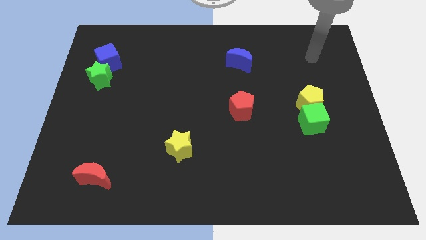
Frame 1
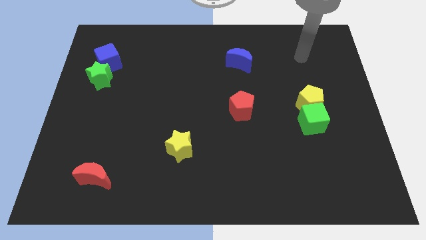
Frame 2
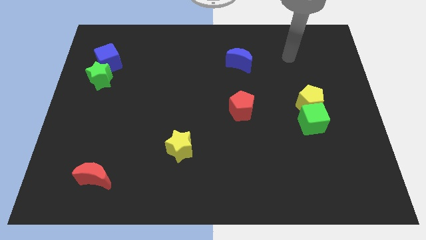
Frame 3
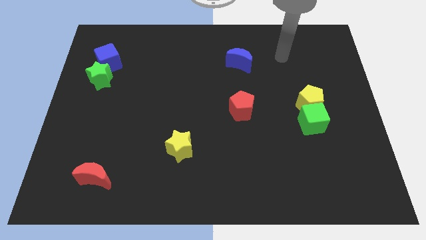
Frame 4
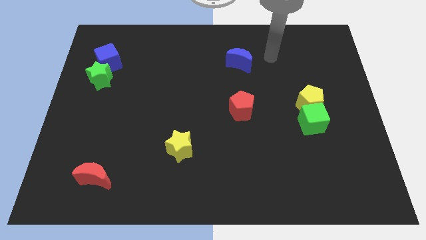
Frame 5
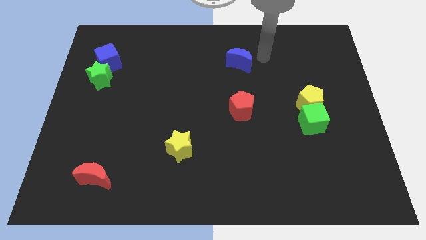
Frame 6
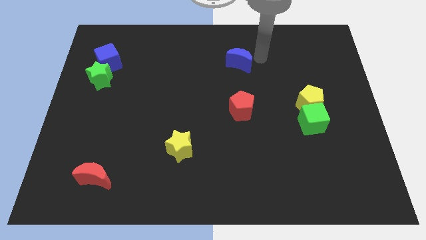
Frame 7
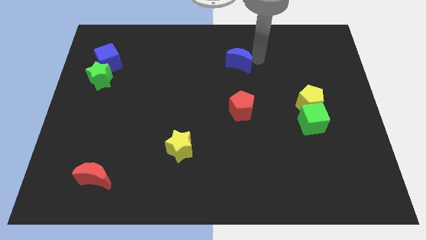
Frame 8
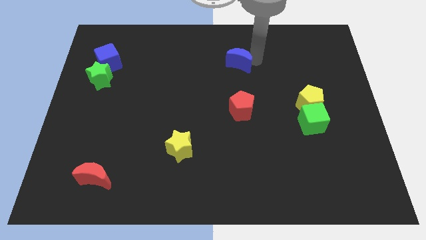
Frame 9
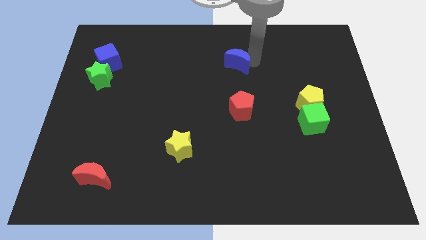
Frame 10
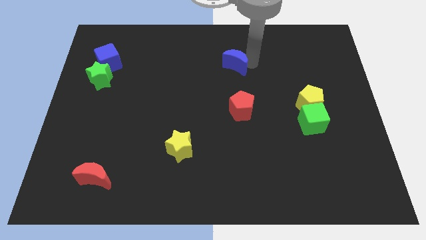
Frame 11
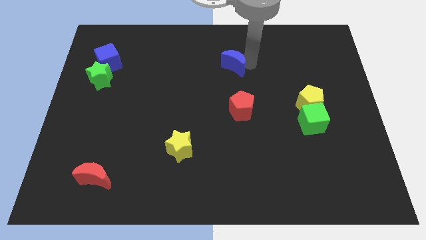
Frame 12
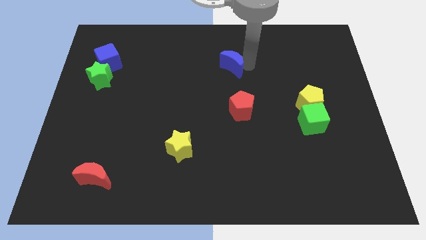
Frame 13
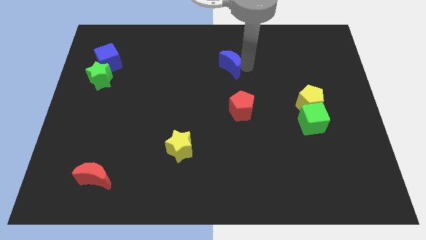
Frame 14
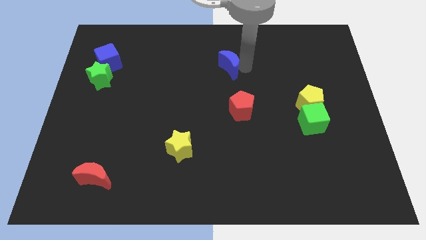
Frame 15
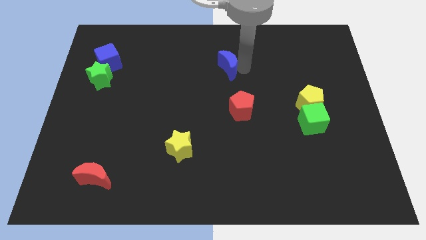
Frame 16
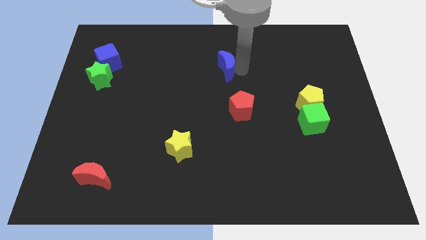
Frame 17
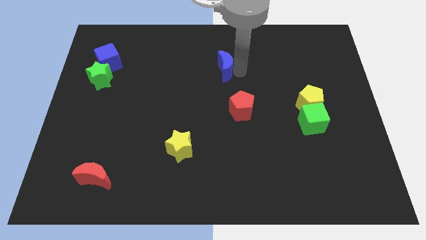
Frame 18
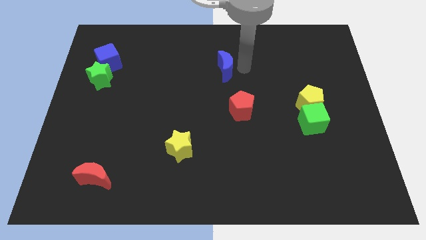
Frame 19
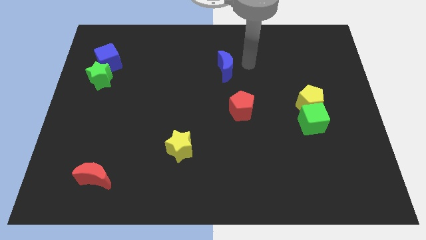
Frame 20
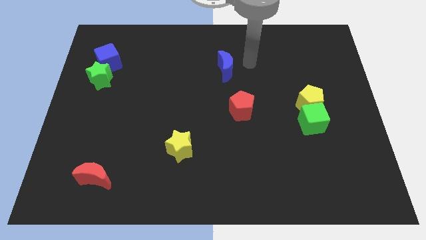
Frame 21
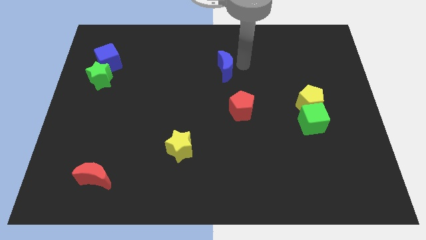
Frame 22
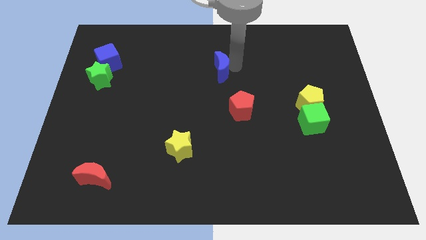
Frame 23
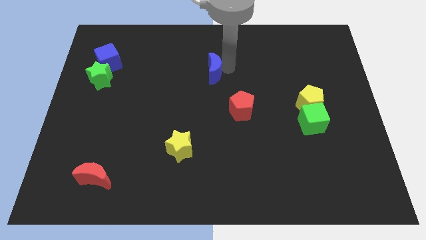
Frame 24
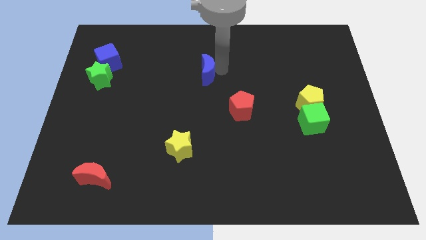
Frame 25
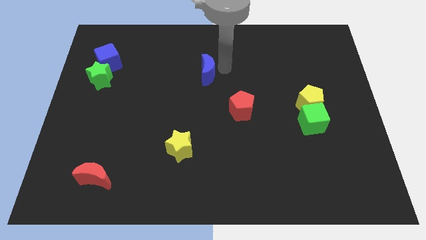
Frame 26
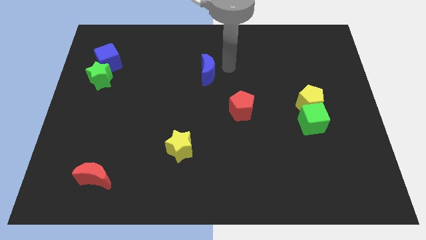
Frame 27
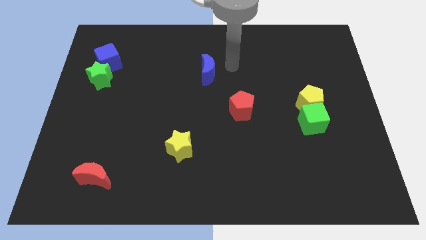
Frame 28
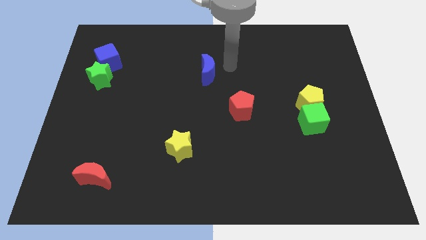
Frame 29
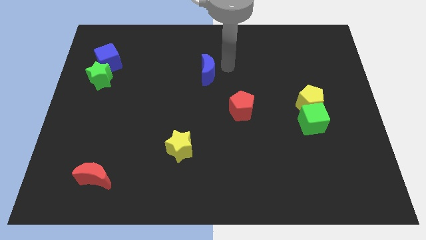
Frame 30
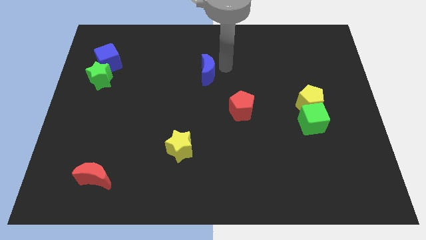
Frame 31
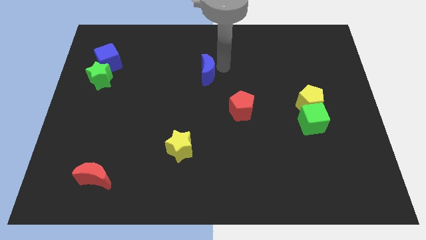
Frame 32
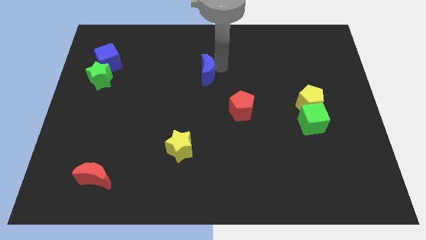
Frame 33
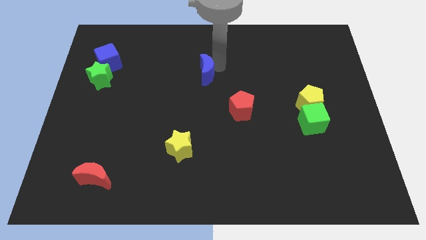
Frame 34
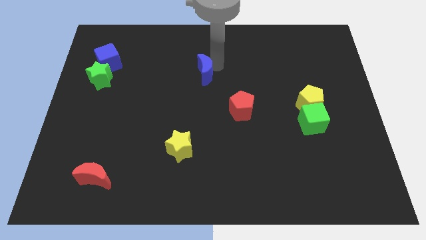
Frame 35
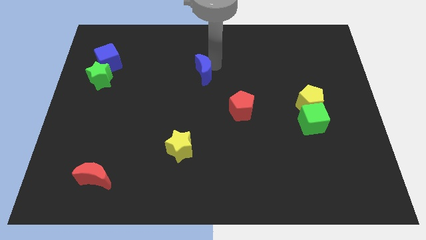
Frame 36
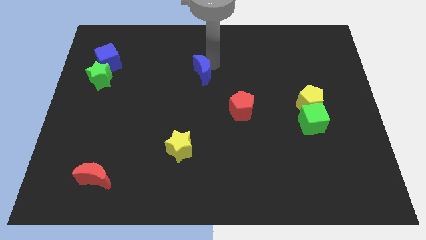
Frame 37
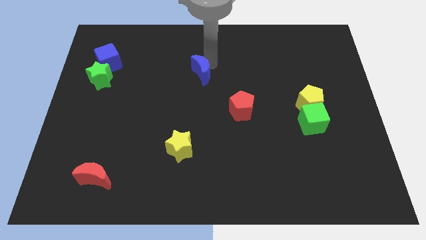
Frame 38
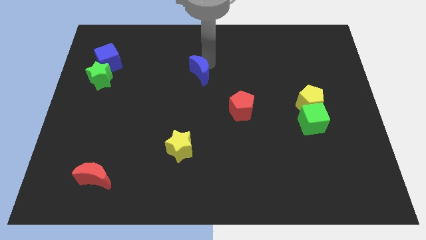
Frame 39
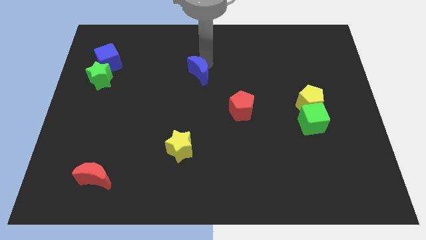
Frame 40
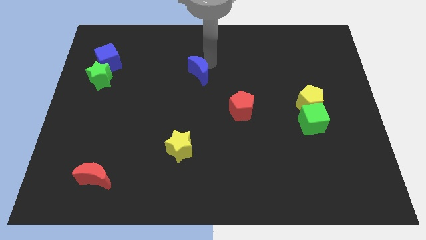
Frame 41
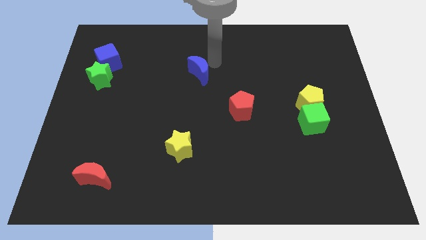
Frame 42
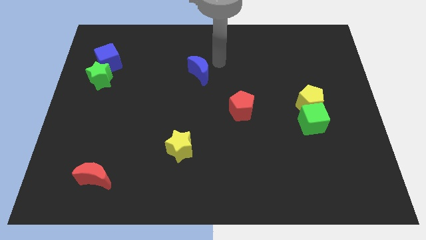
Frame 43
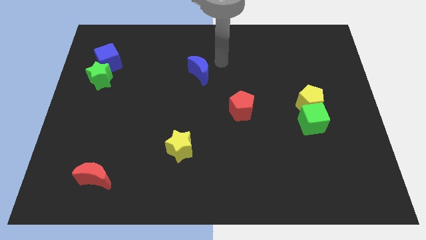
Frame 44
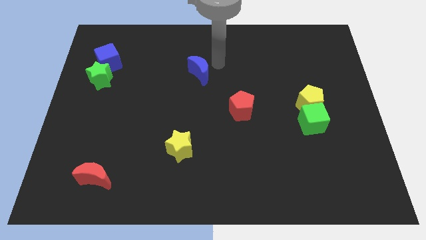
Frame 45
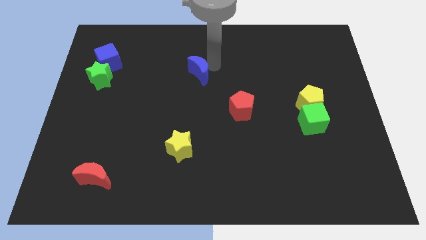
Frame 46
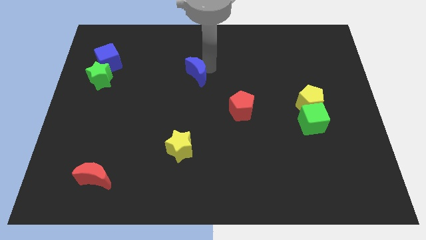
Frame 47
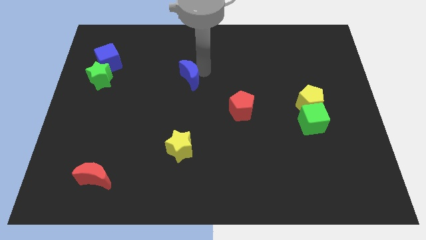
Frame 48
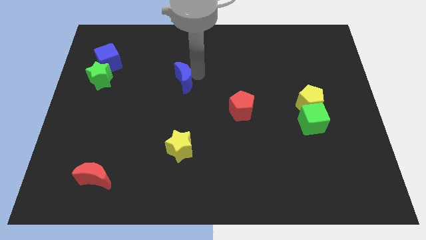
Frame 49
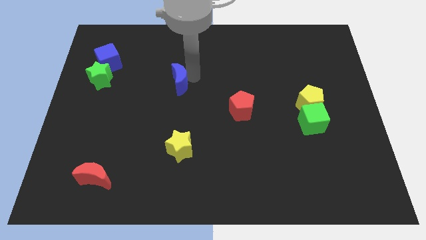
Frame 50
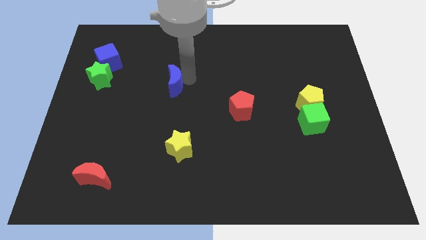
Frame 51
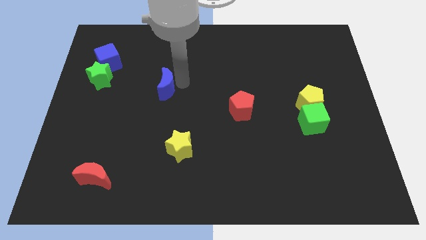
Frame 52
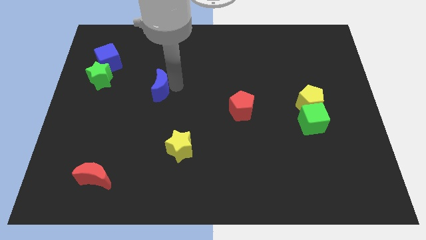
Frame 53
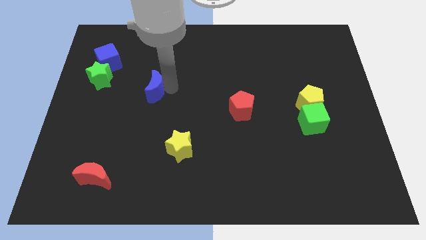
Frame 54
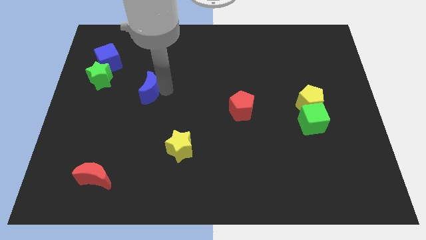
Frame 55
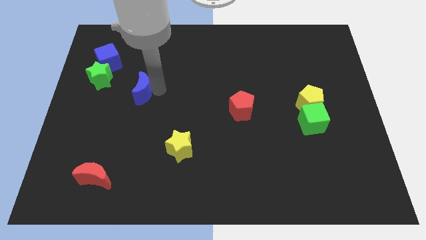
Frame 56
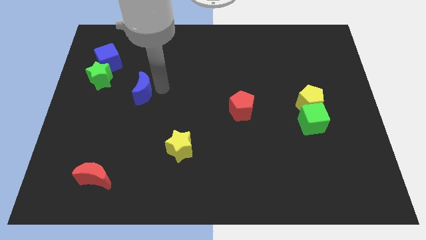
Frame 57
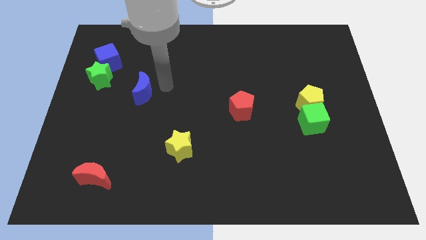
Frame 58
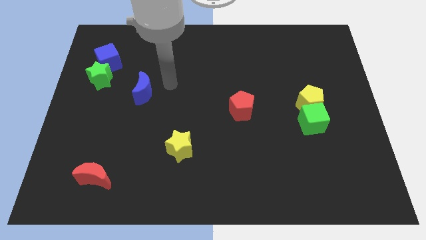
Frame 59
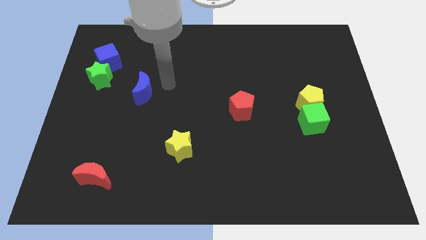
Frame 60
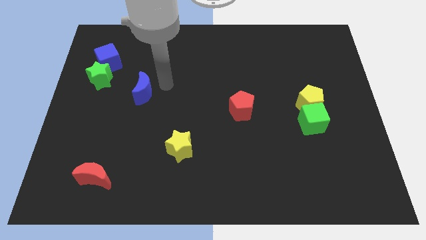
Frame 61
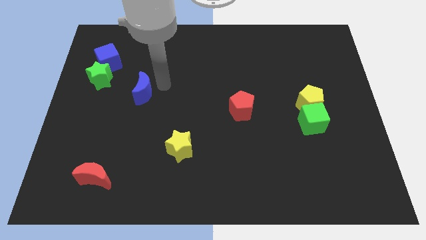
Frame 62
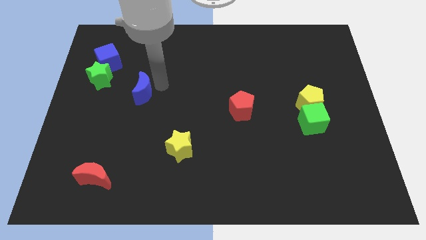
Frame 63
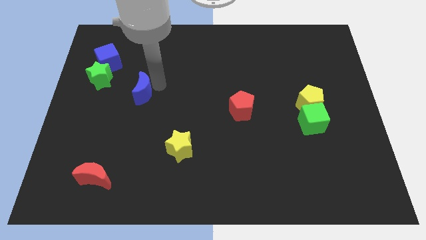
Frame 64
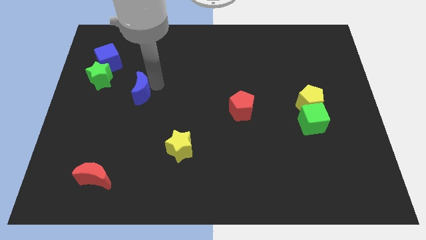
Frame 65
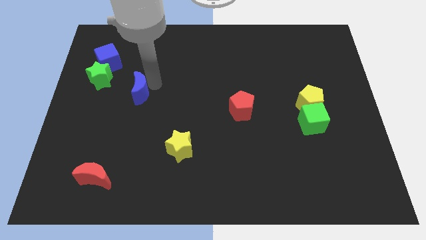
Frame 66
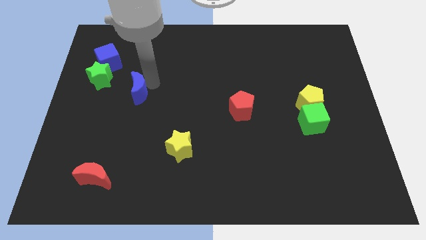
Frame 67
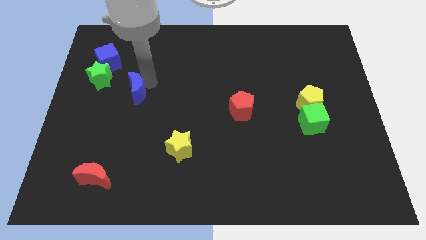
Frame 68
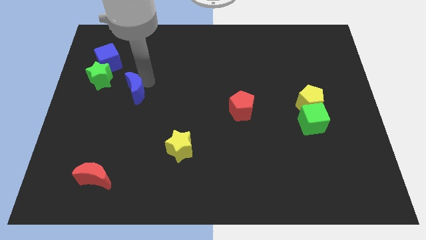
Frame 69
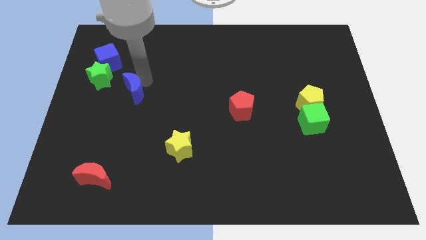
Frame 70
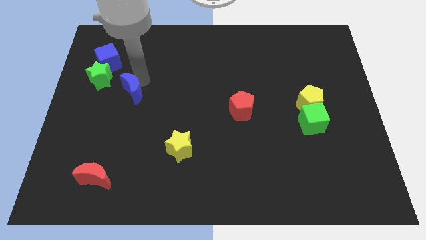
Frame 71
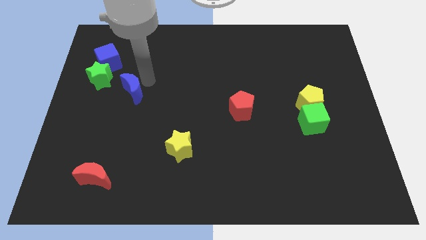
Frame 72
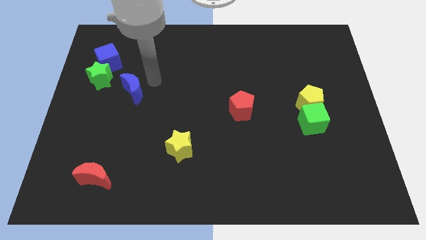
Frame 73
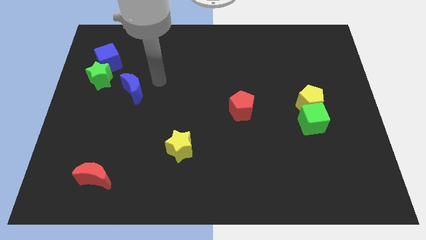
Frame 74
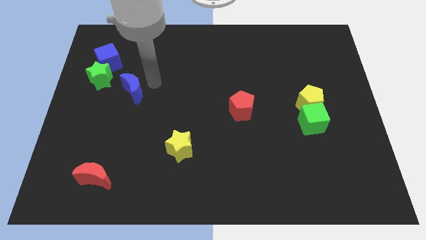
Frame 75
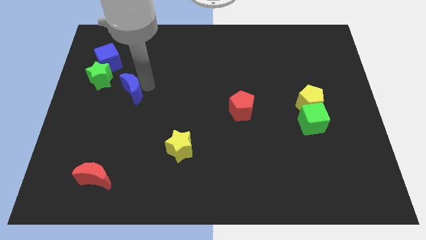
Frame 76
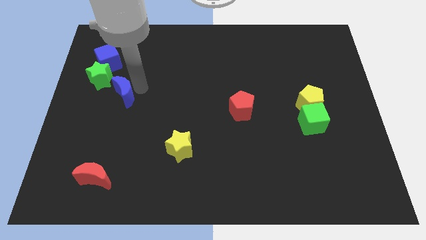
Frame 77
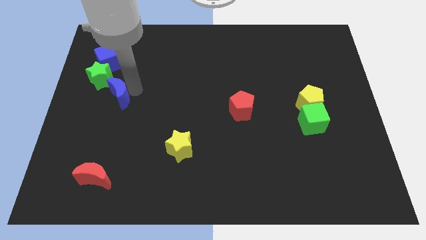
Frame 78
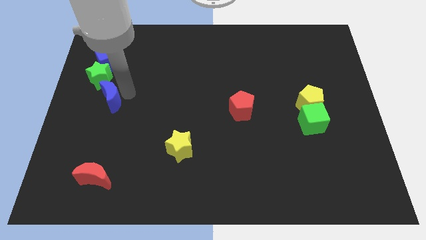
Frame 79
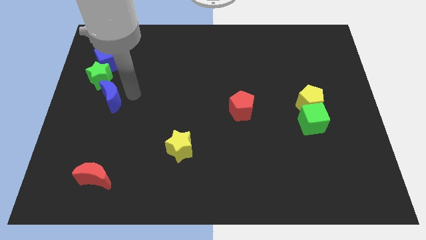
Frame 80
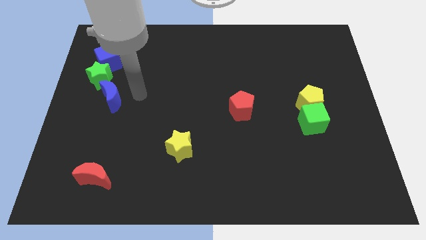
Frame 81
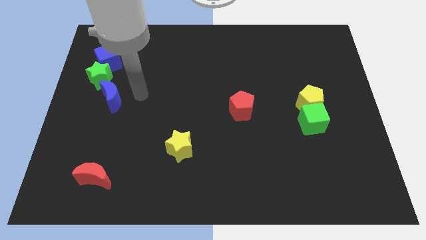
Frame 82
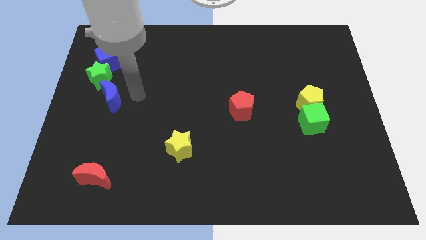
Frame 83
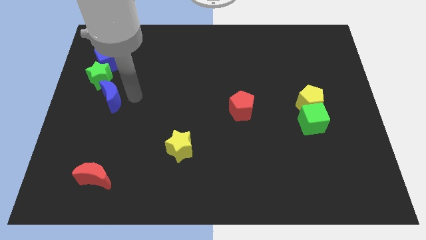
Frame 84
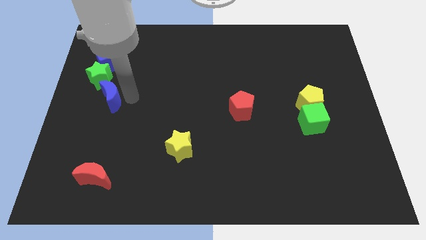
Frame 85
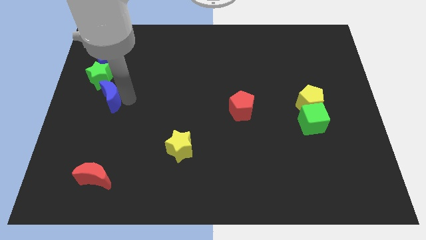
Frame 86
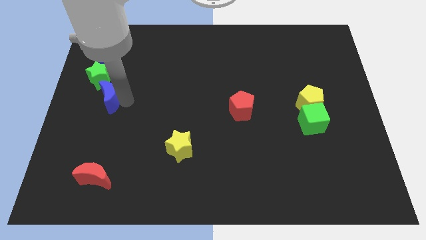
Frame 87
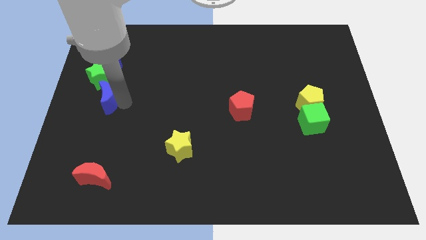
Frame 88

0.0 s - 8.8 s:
slide the blue moon to the center left
